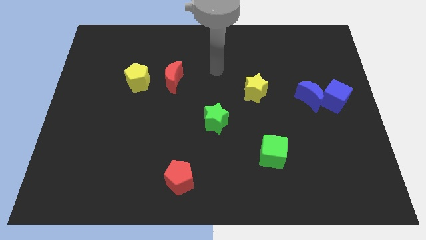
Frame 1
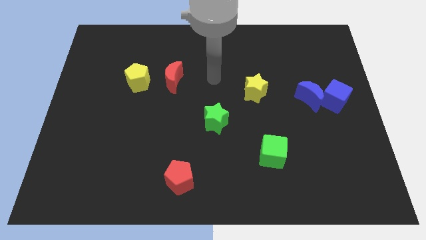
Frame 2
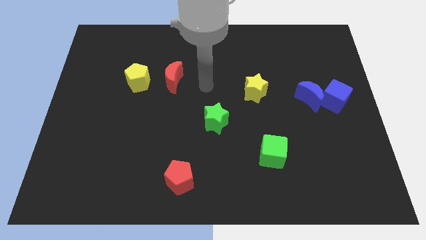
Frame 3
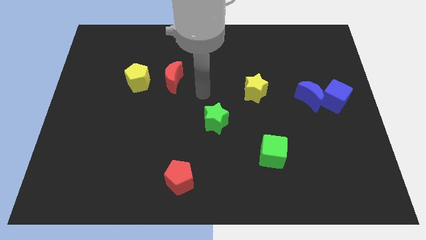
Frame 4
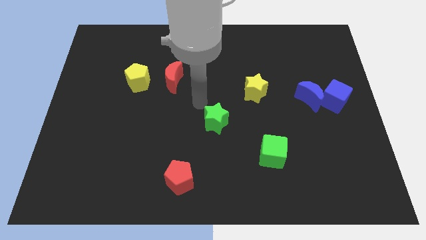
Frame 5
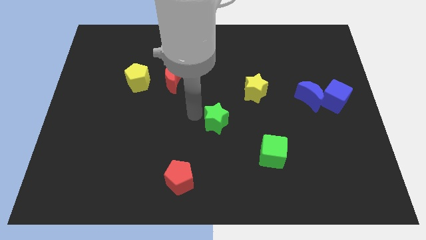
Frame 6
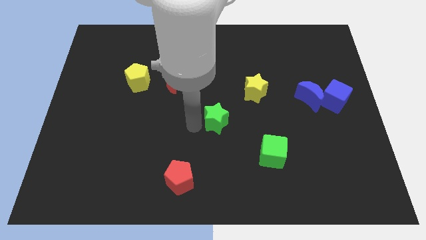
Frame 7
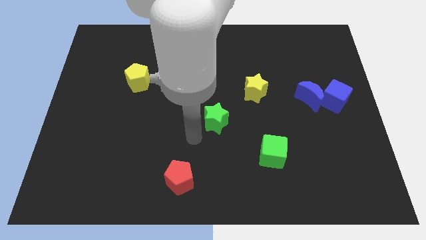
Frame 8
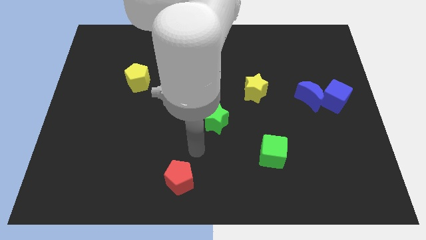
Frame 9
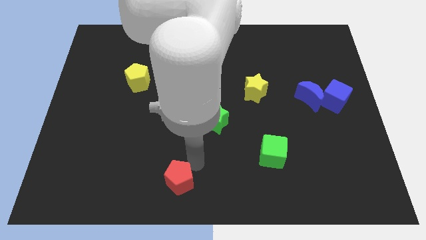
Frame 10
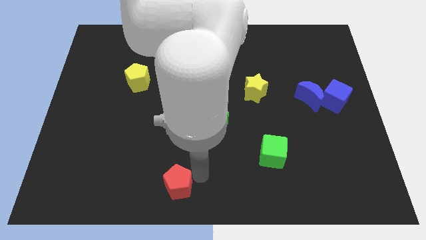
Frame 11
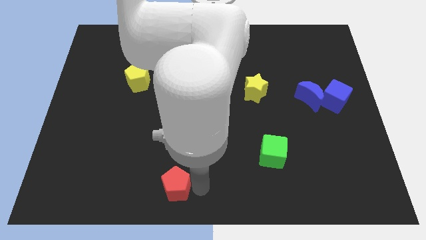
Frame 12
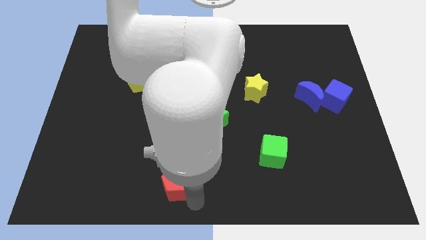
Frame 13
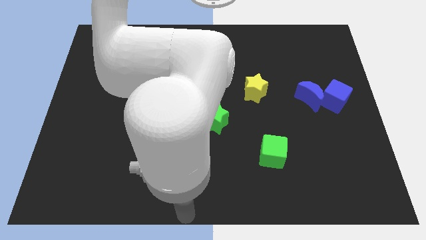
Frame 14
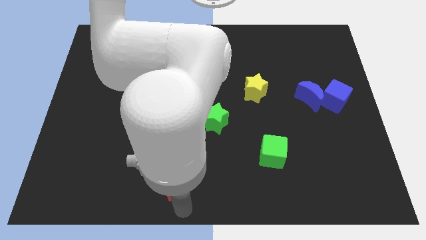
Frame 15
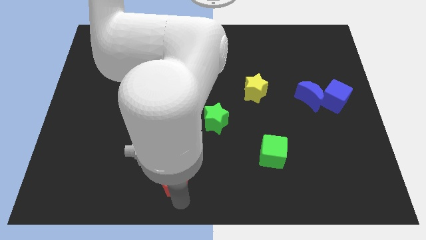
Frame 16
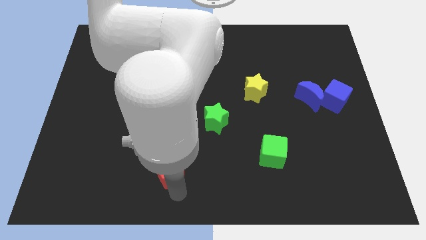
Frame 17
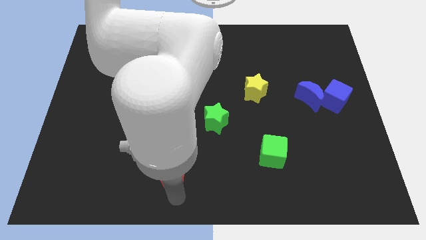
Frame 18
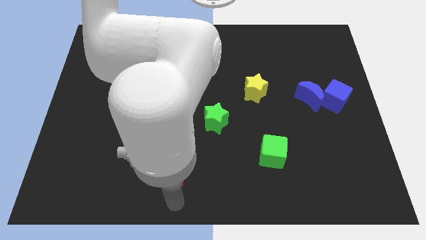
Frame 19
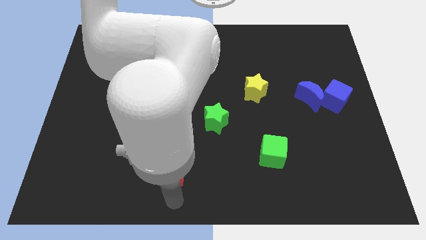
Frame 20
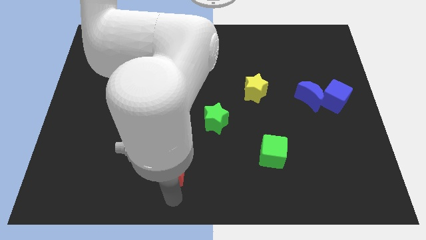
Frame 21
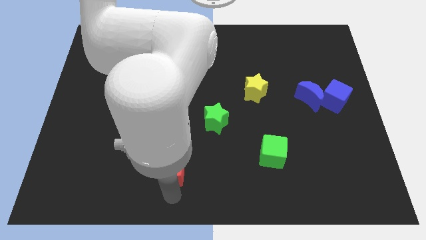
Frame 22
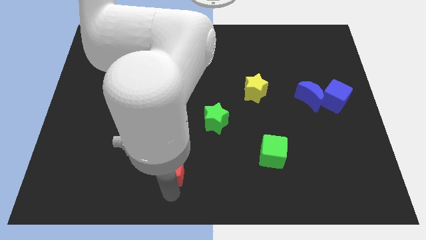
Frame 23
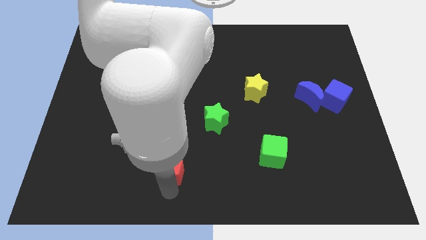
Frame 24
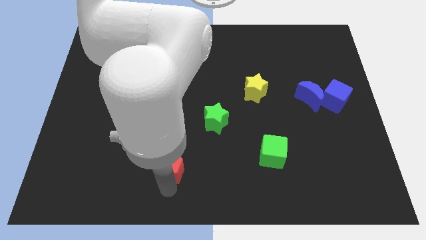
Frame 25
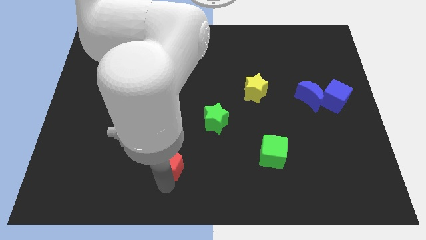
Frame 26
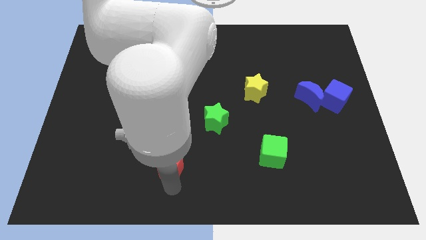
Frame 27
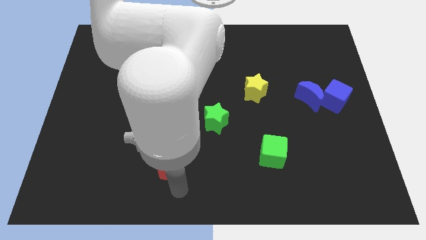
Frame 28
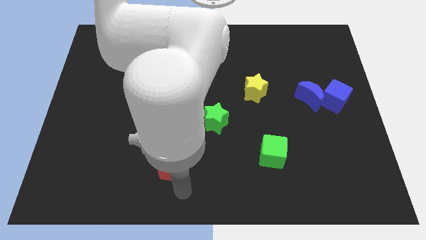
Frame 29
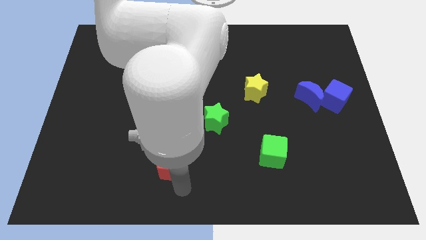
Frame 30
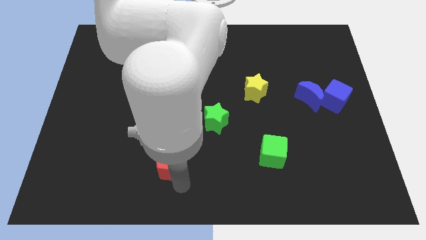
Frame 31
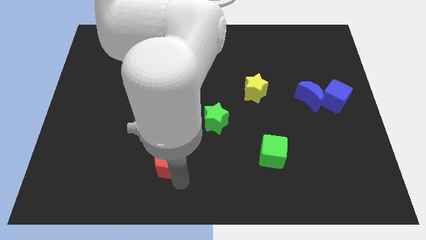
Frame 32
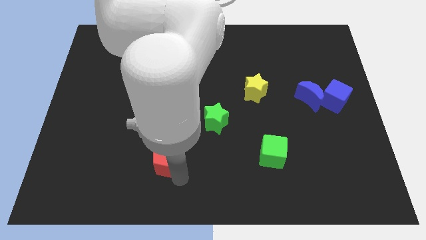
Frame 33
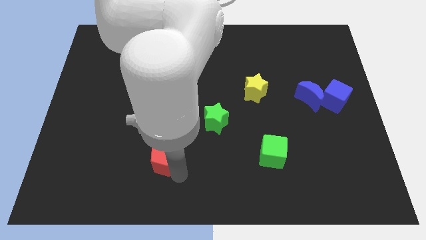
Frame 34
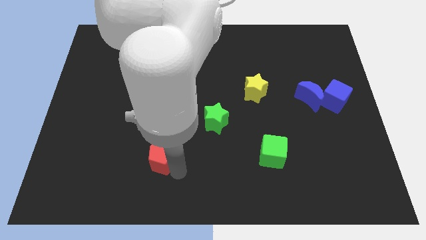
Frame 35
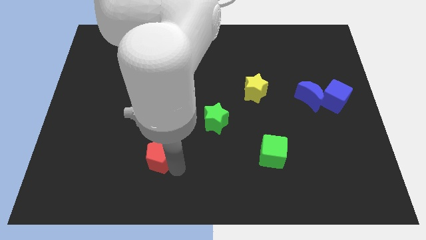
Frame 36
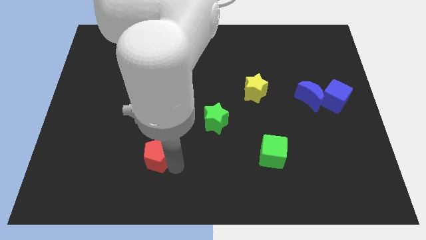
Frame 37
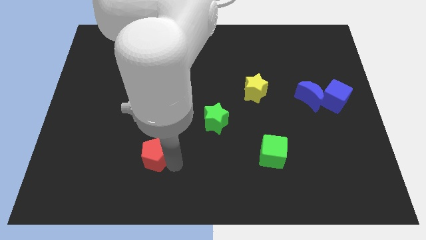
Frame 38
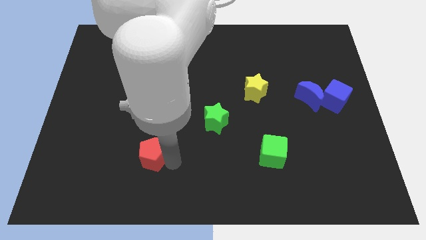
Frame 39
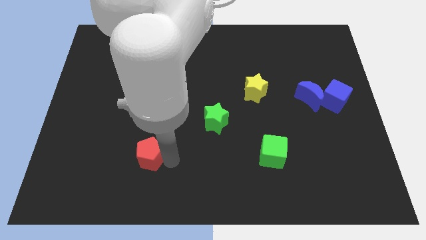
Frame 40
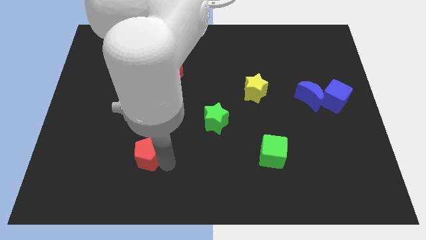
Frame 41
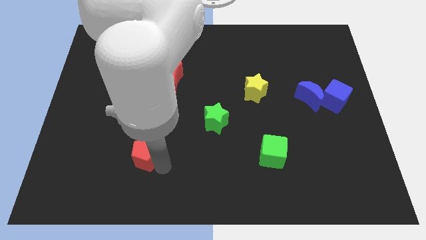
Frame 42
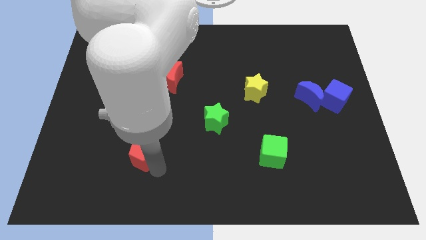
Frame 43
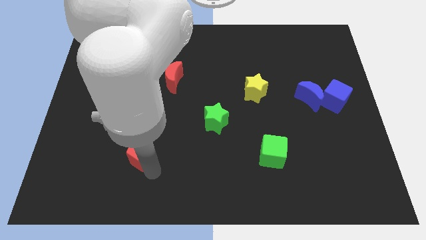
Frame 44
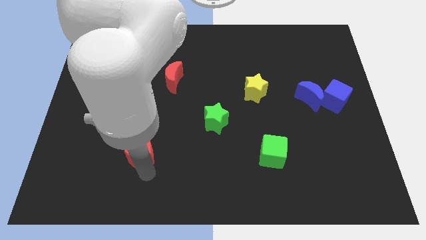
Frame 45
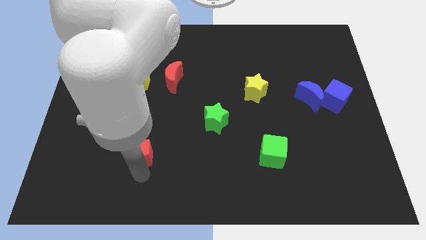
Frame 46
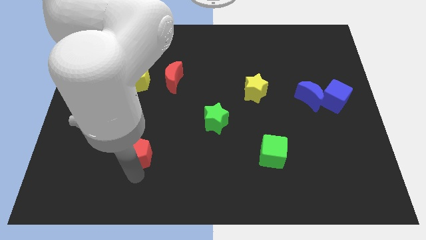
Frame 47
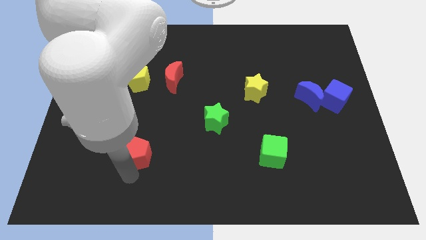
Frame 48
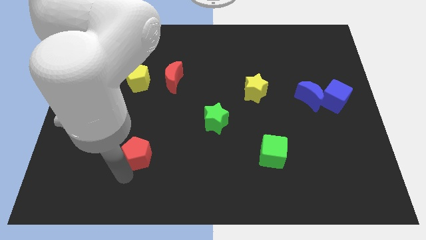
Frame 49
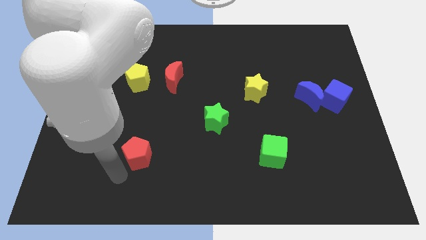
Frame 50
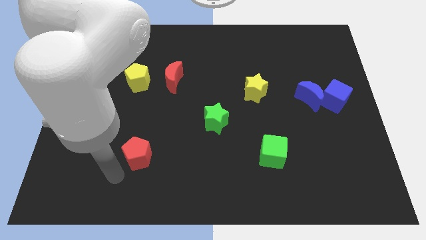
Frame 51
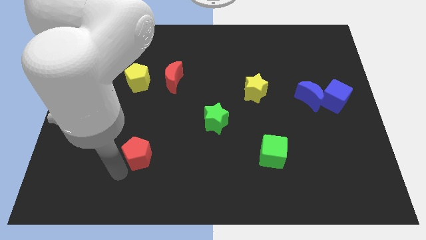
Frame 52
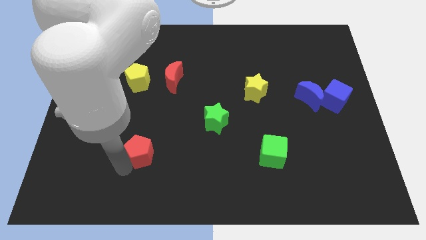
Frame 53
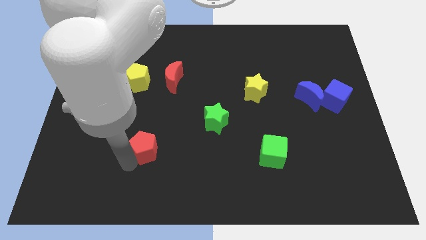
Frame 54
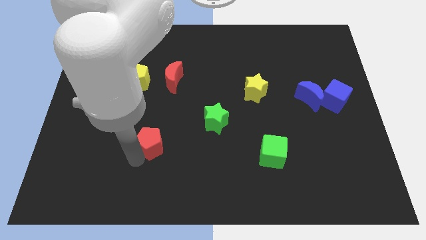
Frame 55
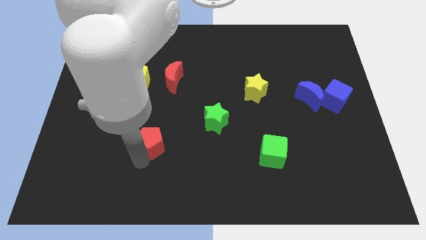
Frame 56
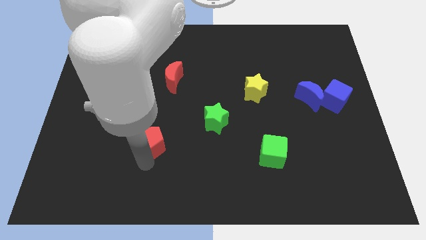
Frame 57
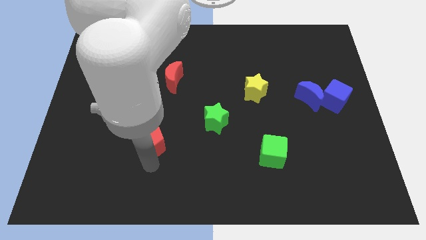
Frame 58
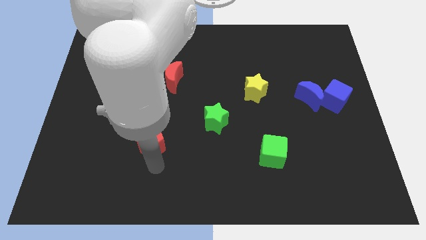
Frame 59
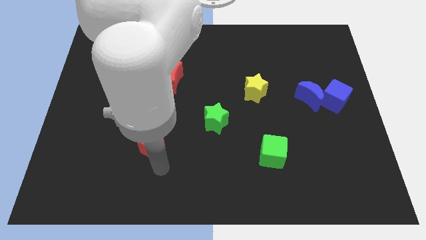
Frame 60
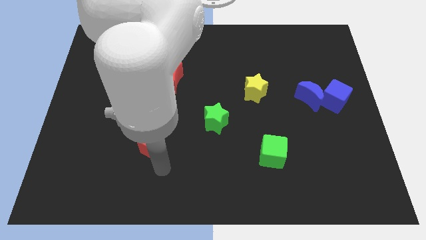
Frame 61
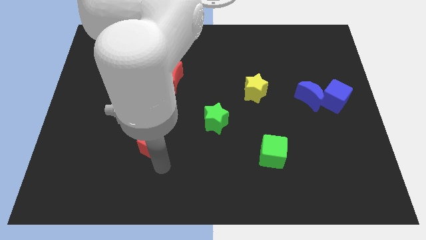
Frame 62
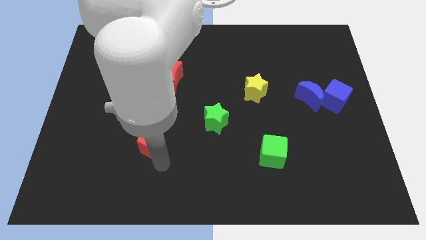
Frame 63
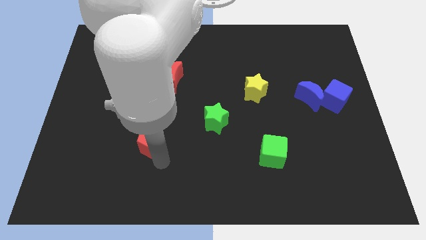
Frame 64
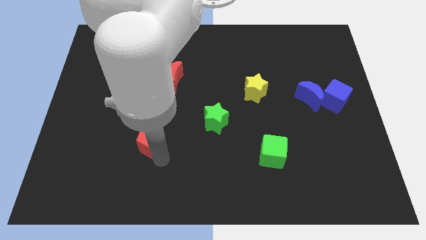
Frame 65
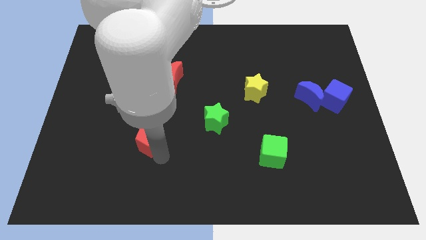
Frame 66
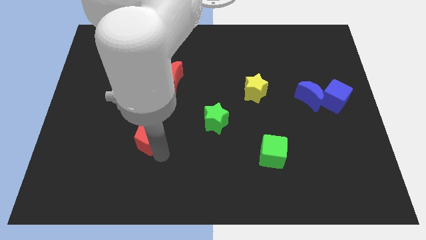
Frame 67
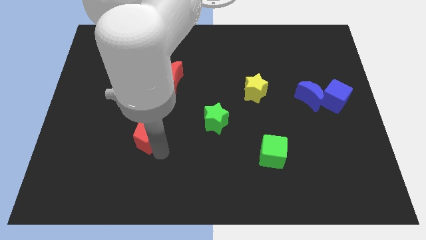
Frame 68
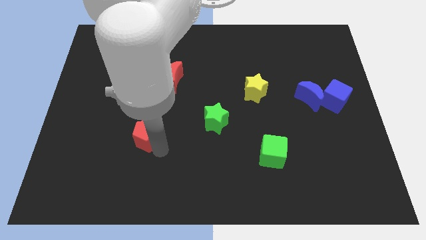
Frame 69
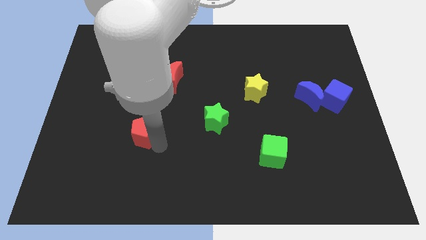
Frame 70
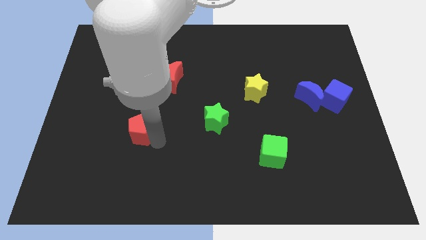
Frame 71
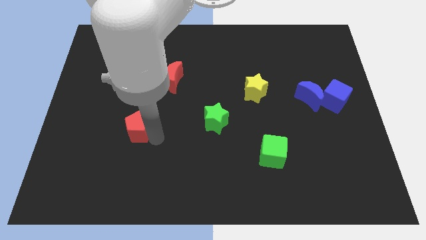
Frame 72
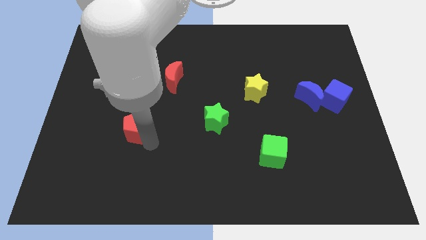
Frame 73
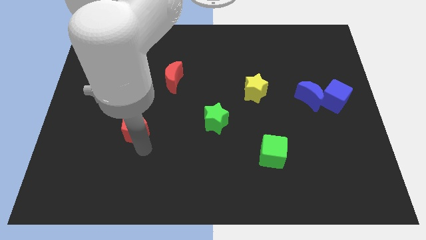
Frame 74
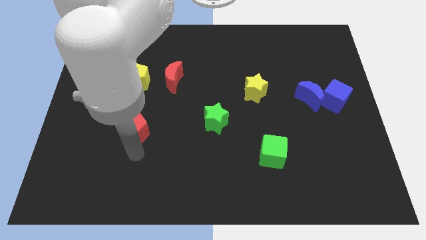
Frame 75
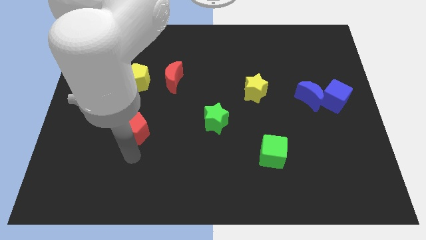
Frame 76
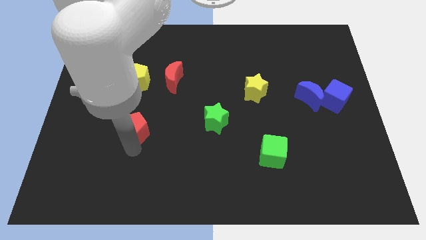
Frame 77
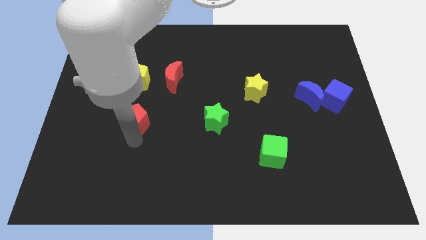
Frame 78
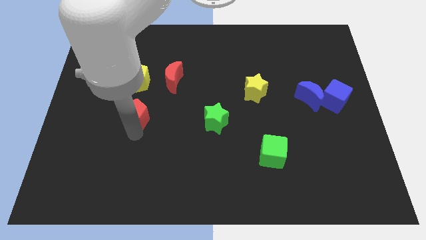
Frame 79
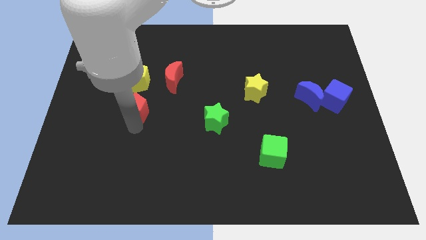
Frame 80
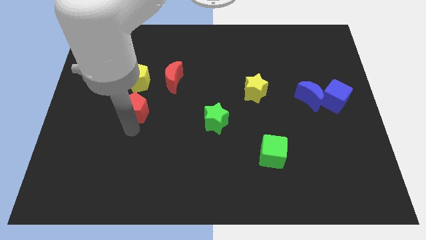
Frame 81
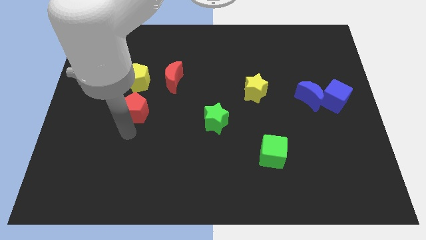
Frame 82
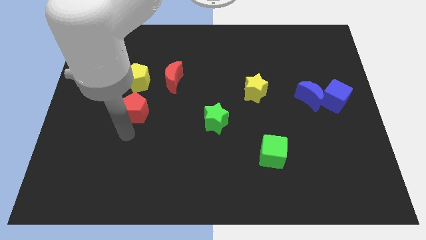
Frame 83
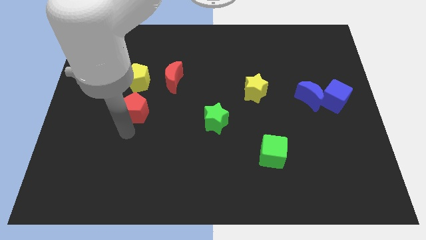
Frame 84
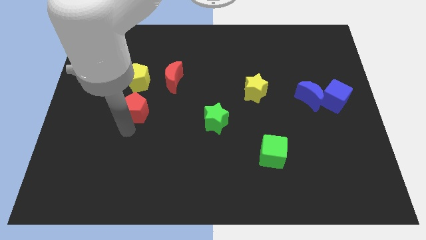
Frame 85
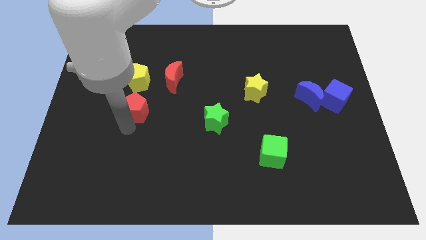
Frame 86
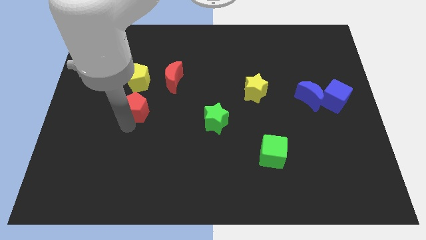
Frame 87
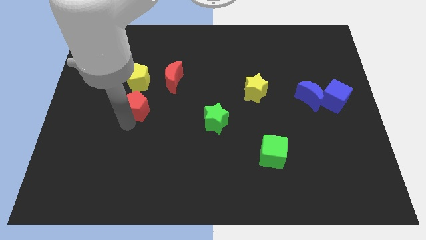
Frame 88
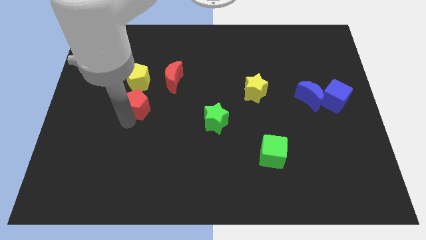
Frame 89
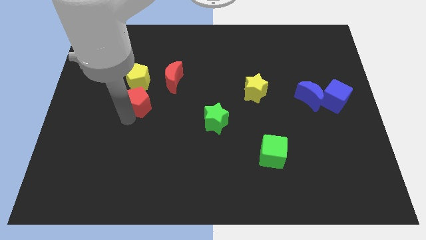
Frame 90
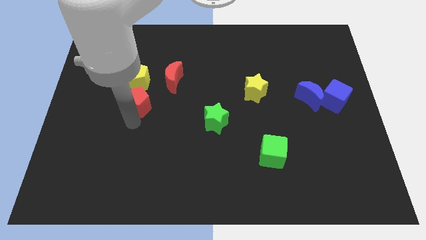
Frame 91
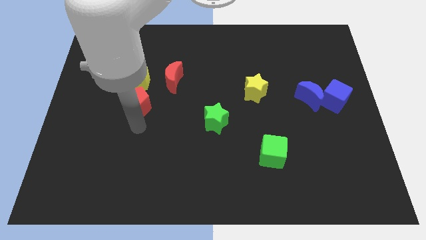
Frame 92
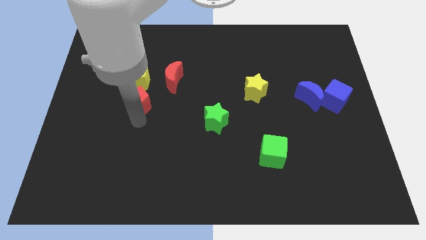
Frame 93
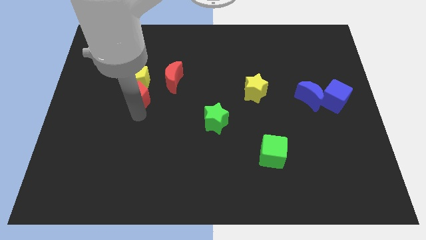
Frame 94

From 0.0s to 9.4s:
slide the red pentagon next to the yellow pentagon
